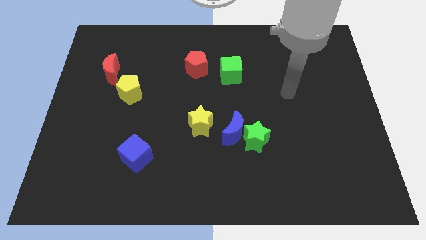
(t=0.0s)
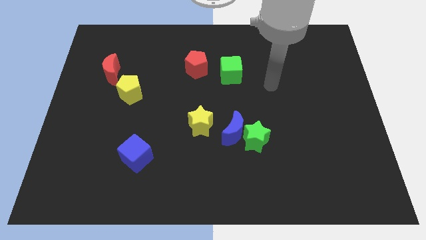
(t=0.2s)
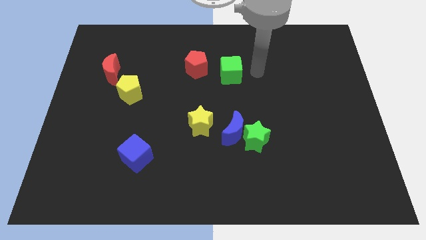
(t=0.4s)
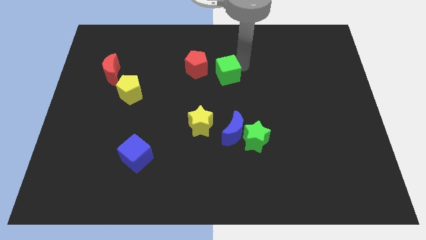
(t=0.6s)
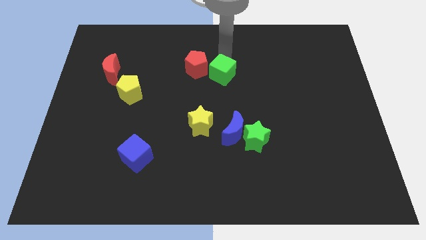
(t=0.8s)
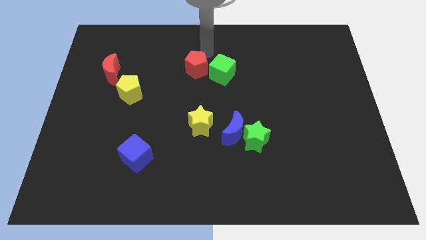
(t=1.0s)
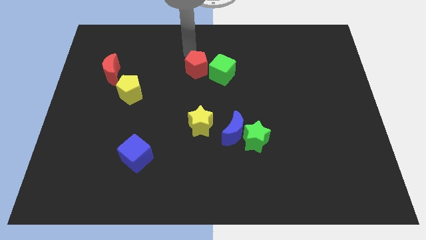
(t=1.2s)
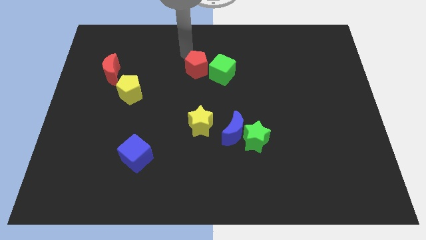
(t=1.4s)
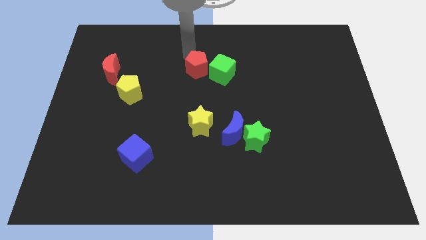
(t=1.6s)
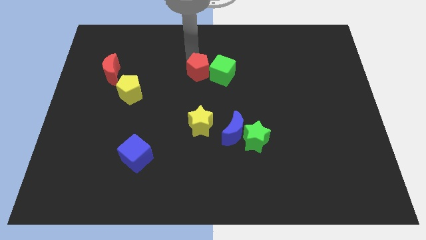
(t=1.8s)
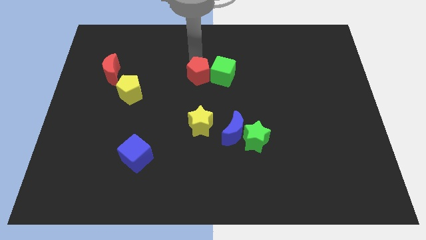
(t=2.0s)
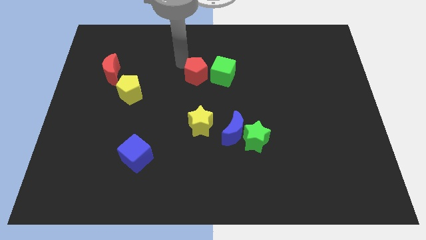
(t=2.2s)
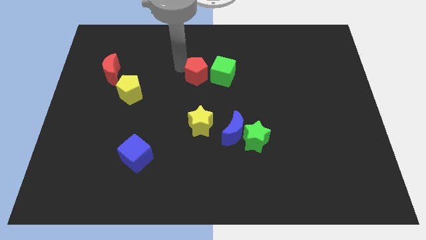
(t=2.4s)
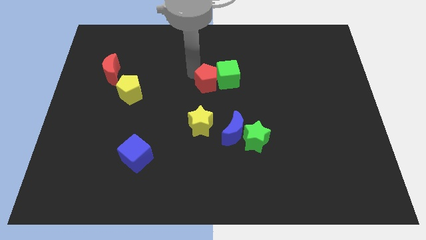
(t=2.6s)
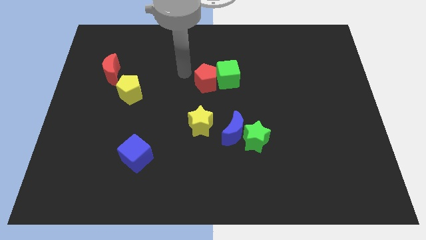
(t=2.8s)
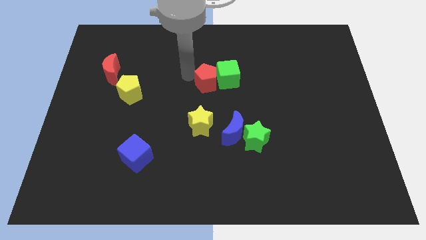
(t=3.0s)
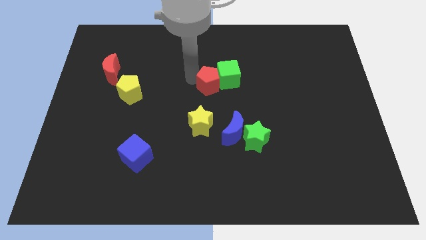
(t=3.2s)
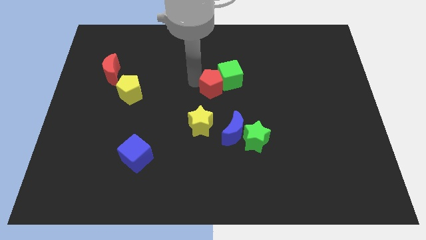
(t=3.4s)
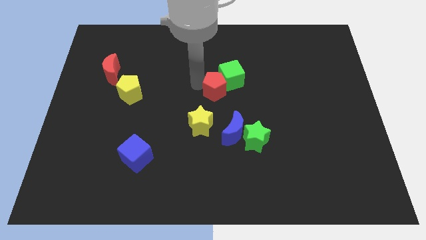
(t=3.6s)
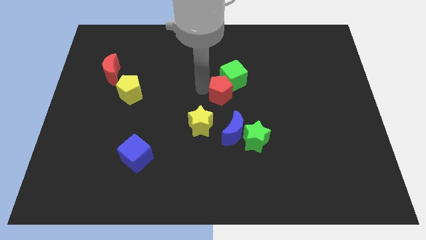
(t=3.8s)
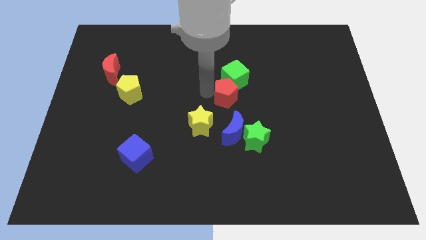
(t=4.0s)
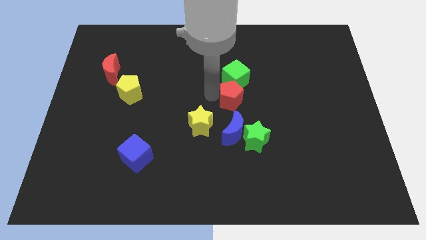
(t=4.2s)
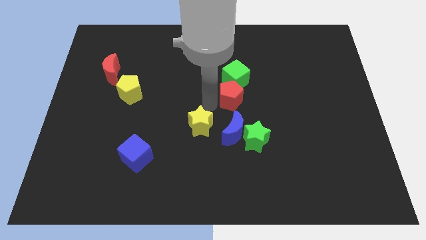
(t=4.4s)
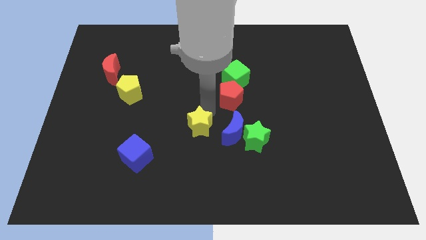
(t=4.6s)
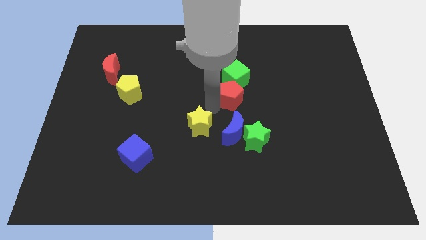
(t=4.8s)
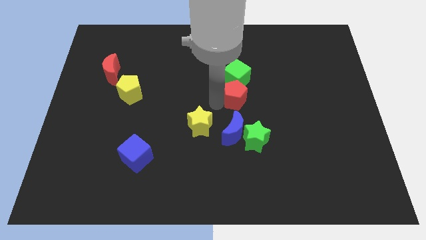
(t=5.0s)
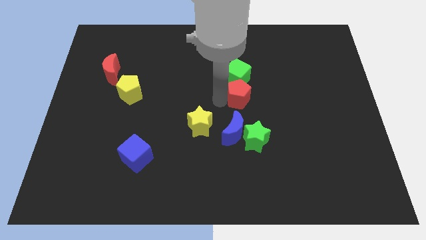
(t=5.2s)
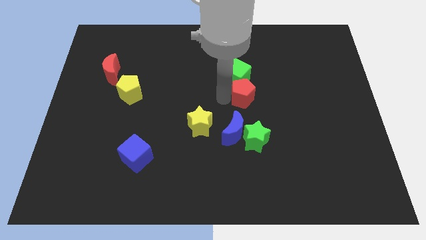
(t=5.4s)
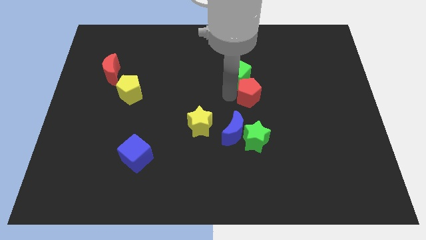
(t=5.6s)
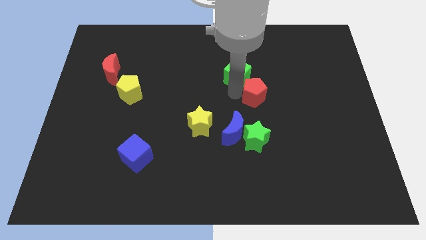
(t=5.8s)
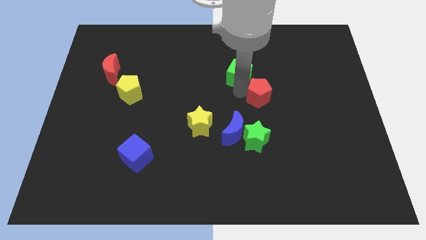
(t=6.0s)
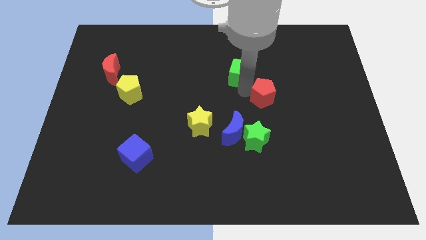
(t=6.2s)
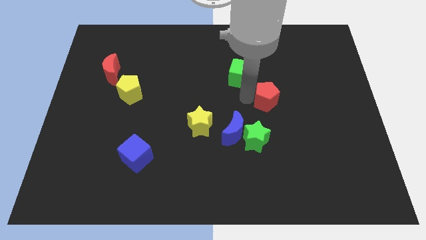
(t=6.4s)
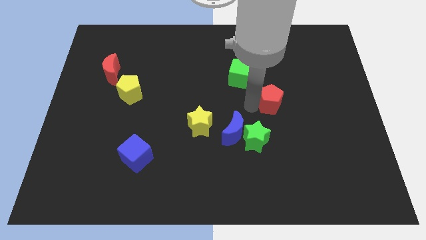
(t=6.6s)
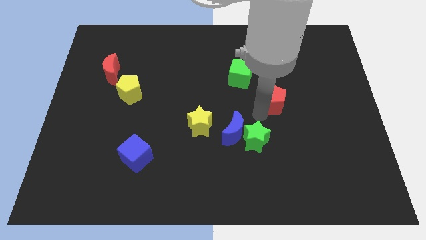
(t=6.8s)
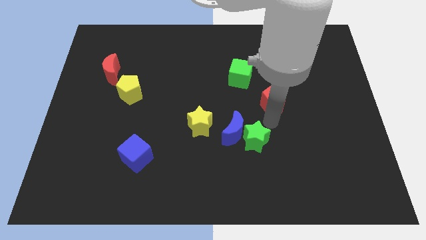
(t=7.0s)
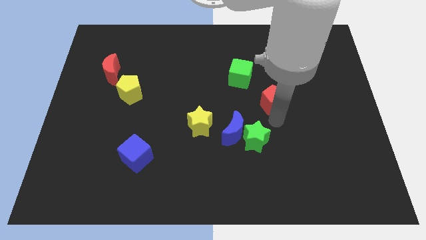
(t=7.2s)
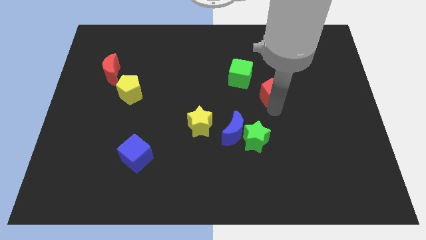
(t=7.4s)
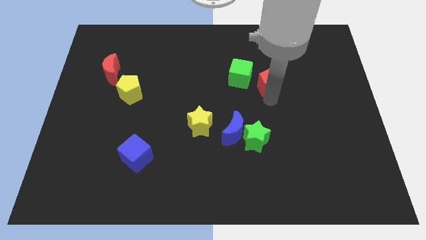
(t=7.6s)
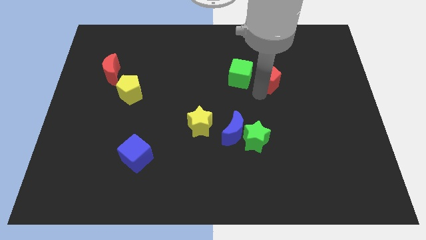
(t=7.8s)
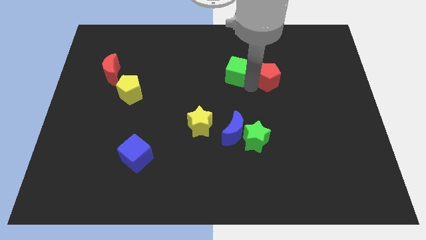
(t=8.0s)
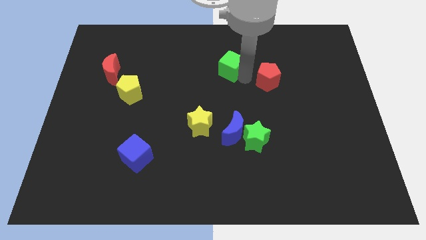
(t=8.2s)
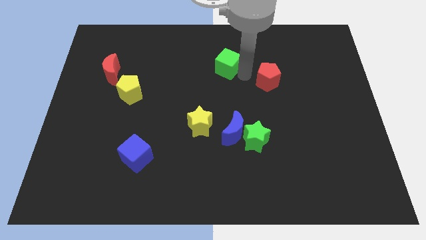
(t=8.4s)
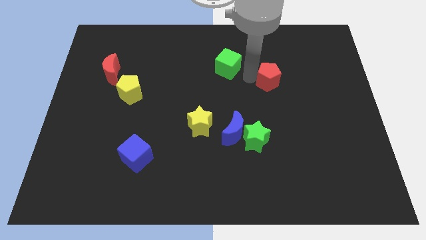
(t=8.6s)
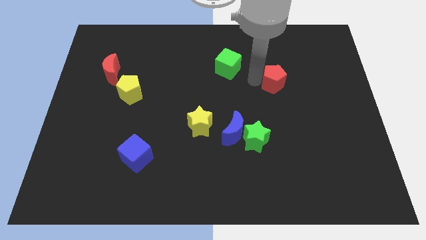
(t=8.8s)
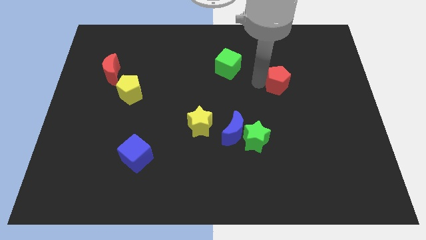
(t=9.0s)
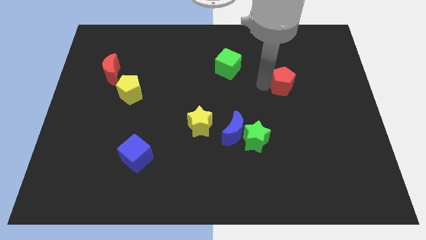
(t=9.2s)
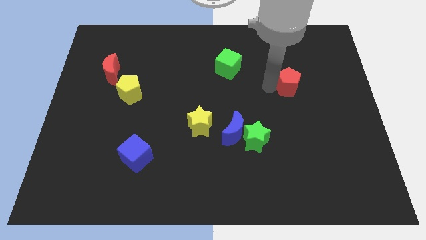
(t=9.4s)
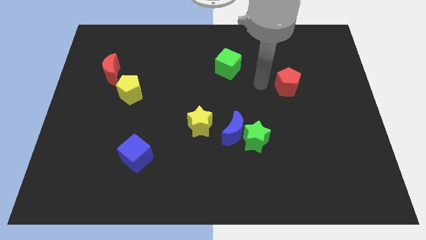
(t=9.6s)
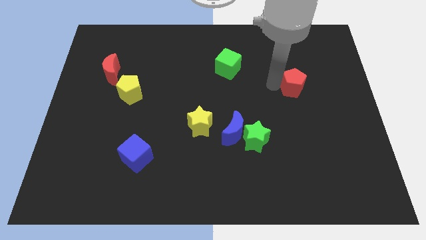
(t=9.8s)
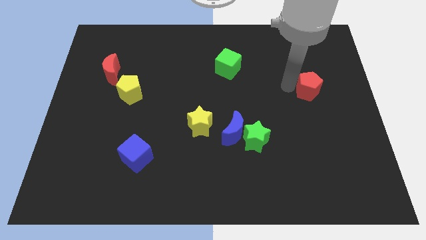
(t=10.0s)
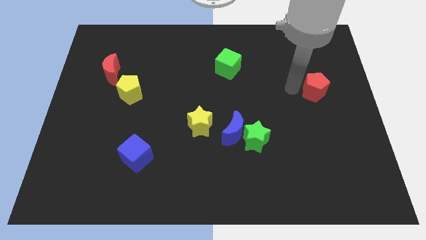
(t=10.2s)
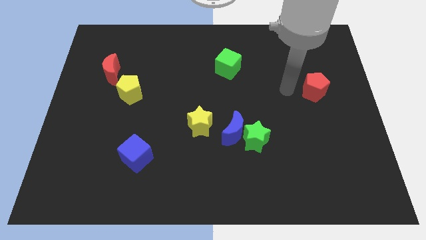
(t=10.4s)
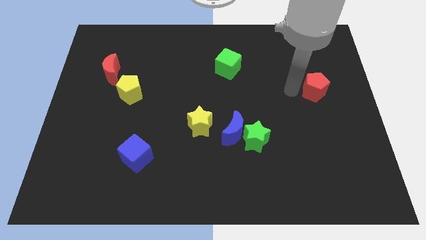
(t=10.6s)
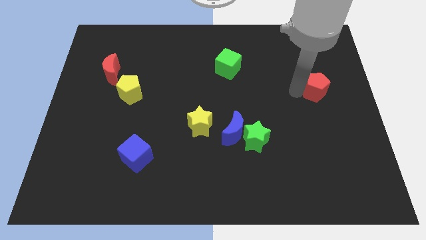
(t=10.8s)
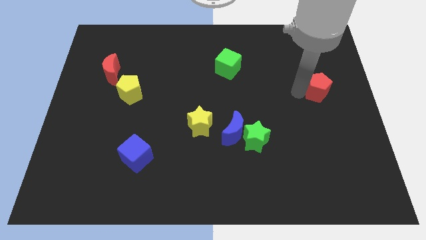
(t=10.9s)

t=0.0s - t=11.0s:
slide the red pentagon to the center right
